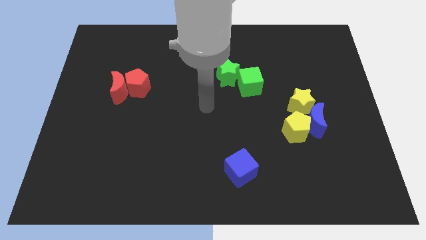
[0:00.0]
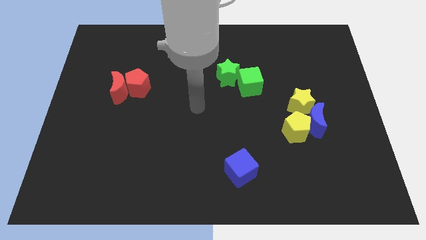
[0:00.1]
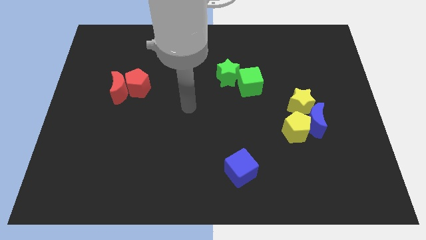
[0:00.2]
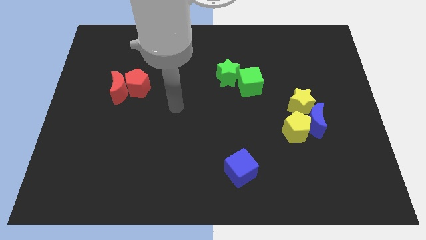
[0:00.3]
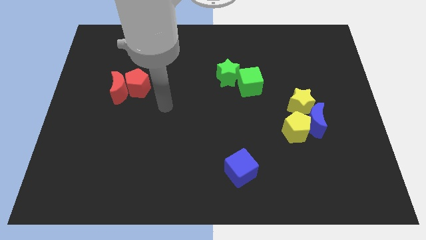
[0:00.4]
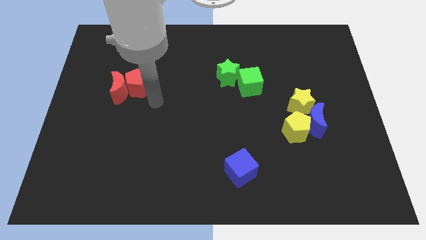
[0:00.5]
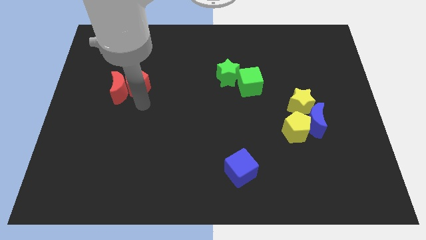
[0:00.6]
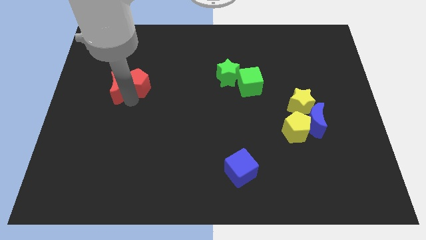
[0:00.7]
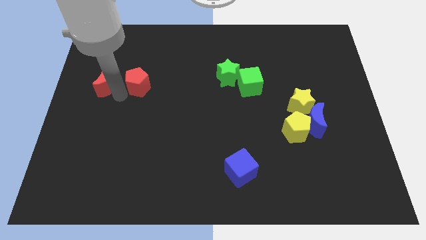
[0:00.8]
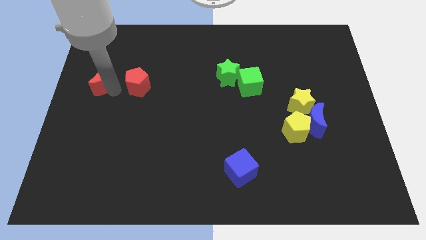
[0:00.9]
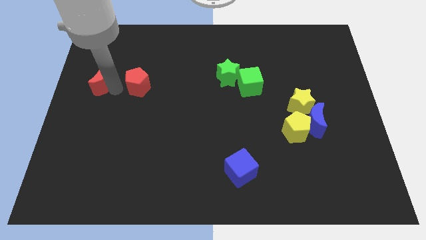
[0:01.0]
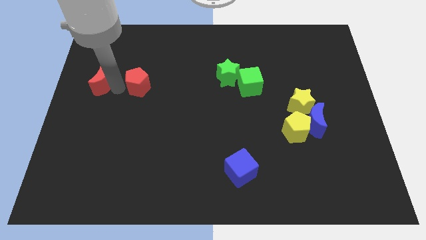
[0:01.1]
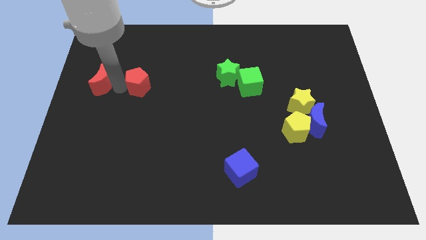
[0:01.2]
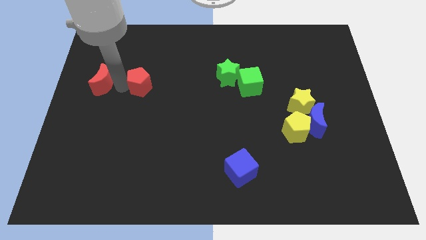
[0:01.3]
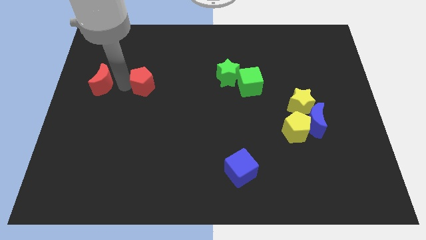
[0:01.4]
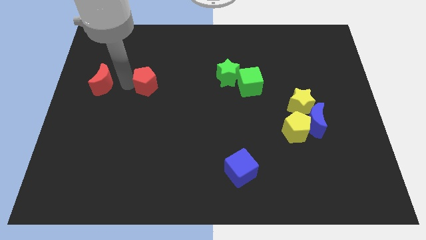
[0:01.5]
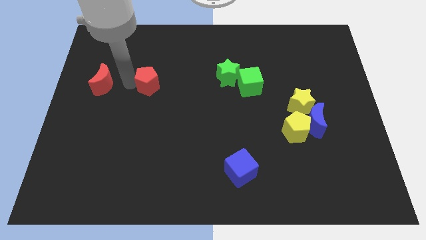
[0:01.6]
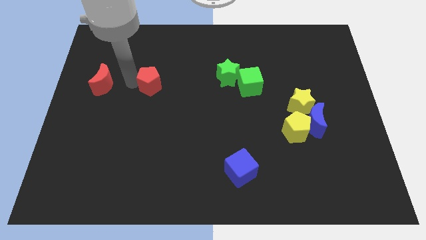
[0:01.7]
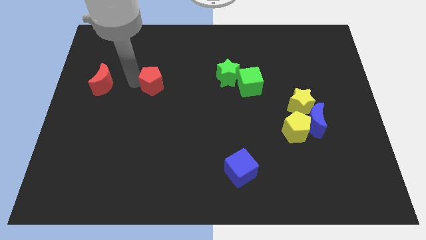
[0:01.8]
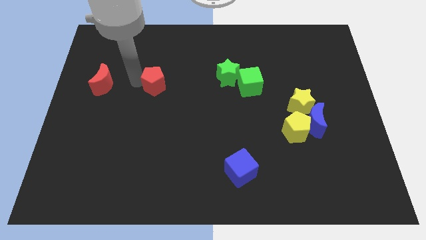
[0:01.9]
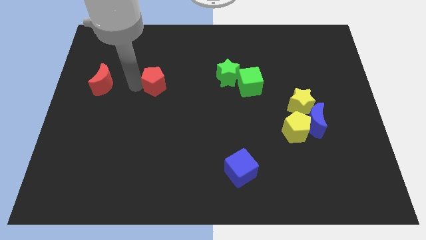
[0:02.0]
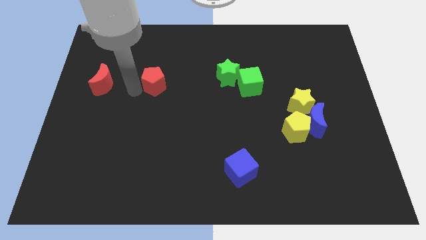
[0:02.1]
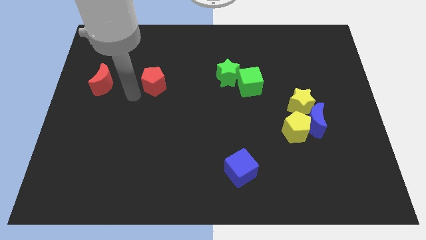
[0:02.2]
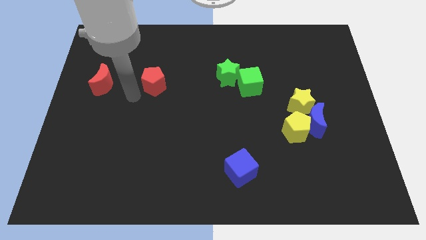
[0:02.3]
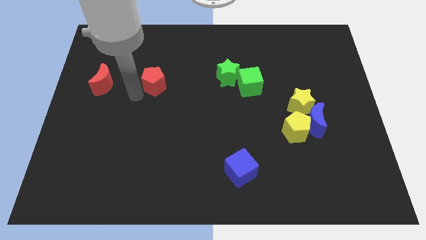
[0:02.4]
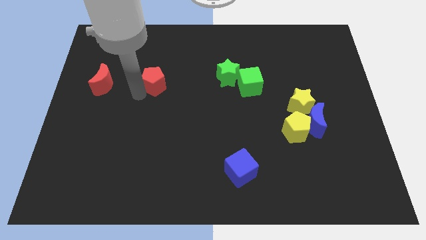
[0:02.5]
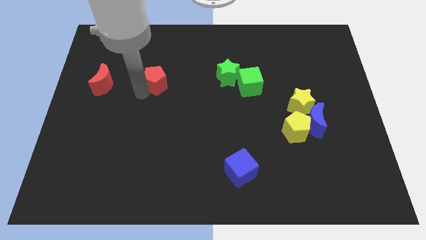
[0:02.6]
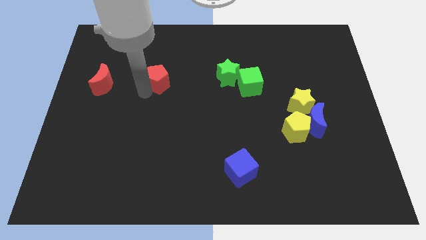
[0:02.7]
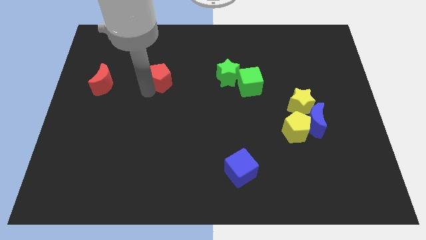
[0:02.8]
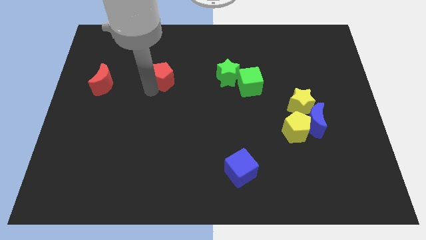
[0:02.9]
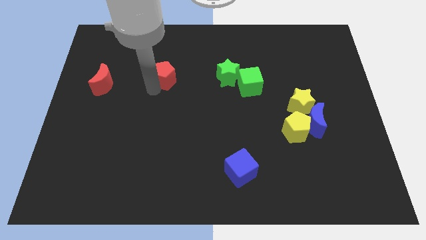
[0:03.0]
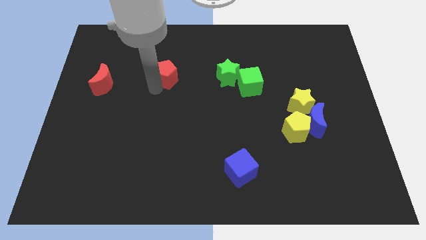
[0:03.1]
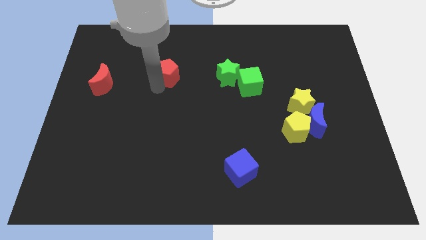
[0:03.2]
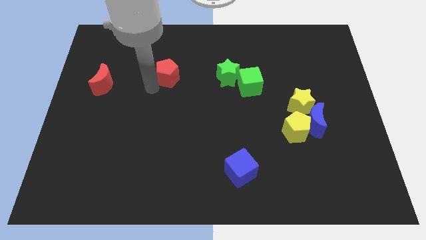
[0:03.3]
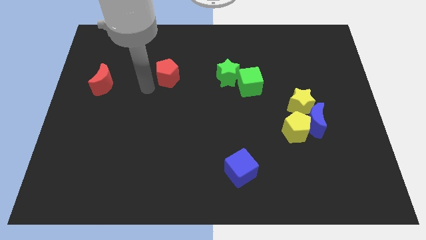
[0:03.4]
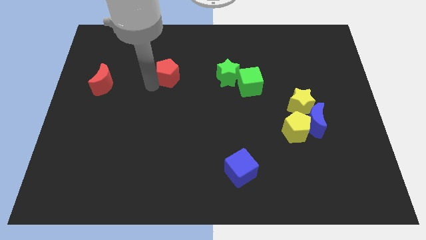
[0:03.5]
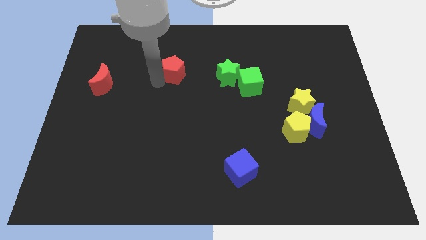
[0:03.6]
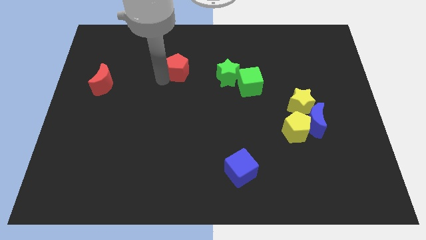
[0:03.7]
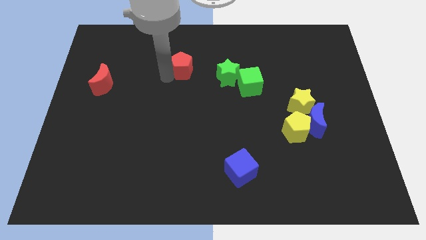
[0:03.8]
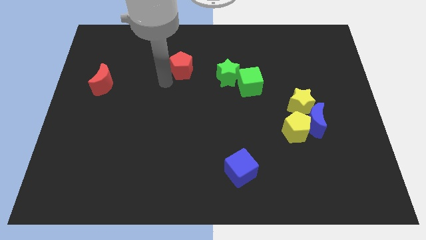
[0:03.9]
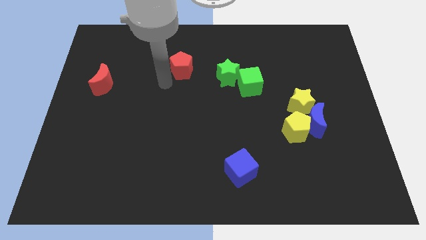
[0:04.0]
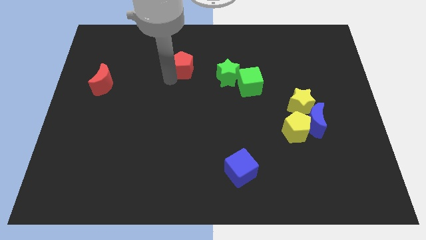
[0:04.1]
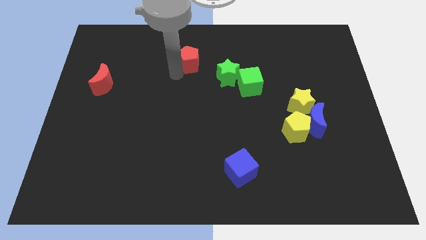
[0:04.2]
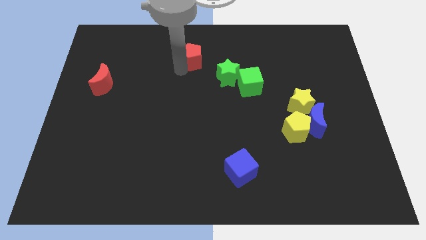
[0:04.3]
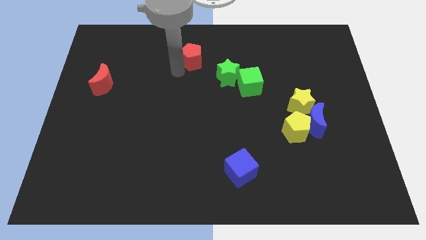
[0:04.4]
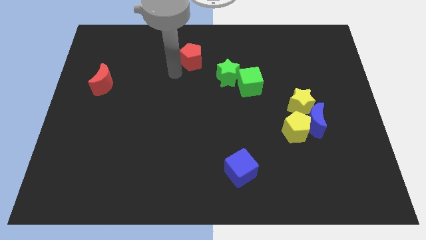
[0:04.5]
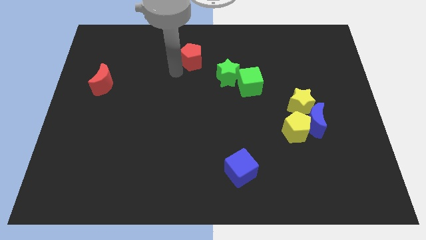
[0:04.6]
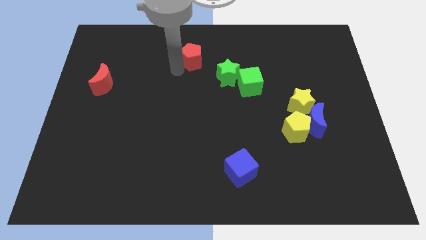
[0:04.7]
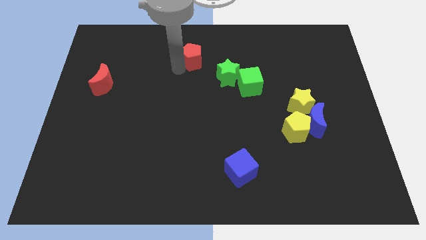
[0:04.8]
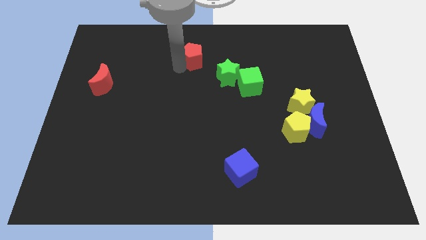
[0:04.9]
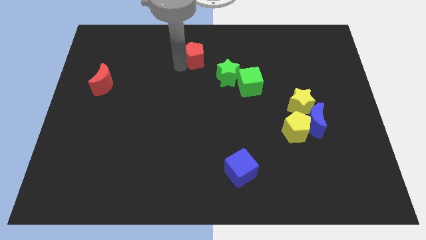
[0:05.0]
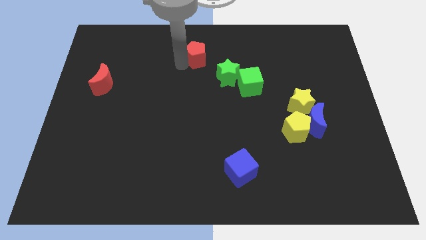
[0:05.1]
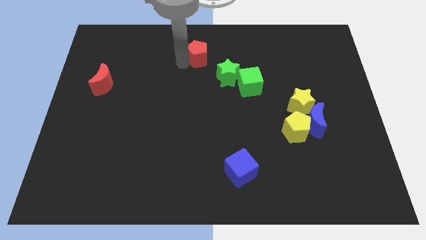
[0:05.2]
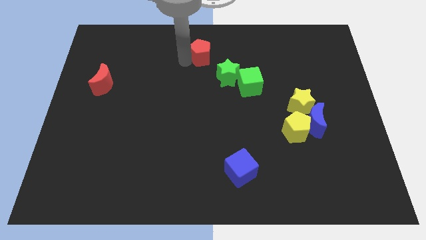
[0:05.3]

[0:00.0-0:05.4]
push the red pentagon to the towards your base

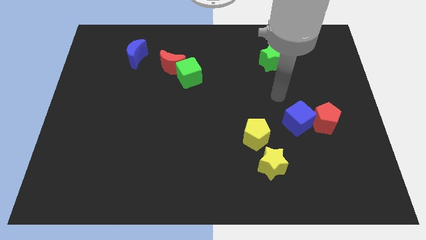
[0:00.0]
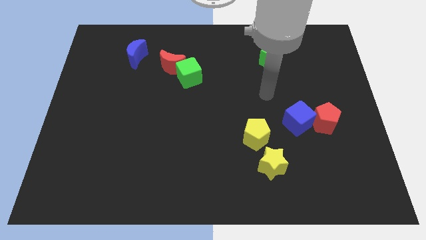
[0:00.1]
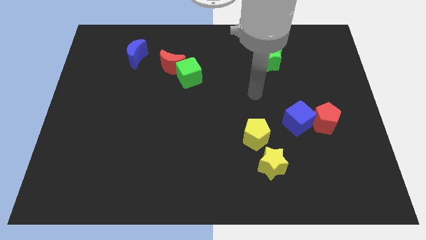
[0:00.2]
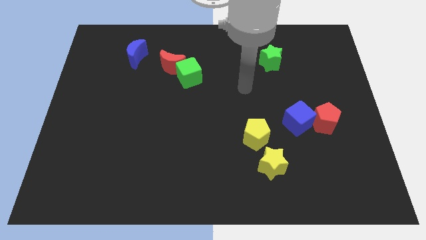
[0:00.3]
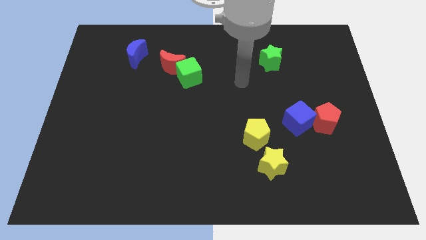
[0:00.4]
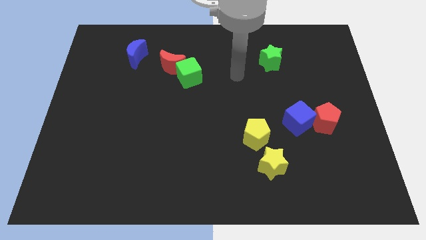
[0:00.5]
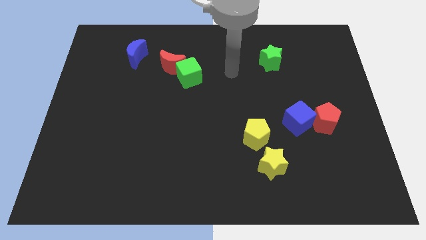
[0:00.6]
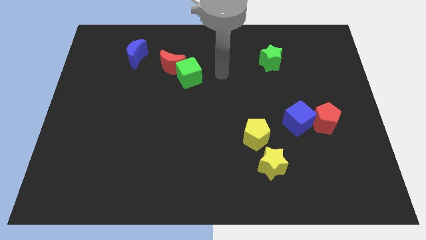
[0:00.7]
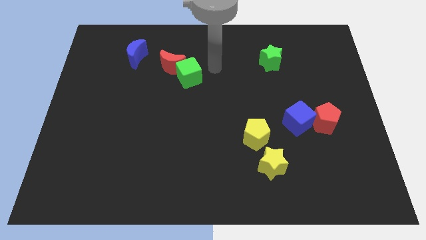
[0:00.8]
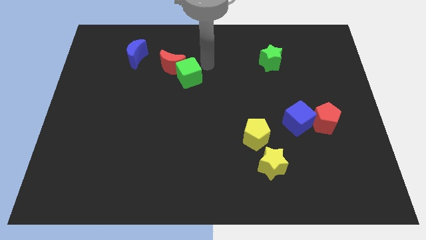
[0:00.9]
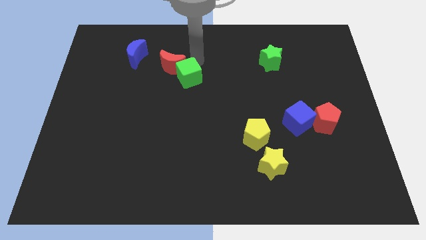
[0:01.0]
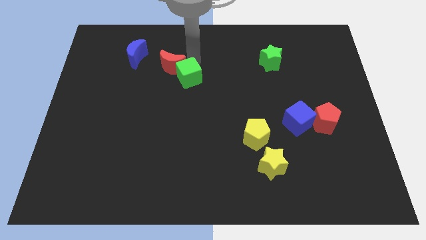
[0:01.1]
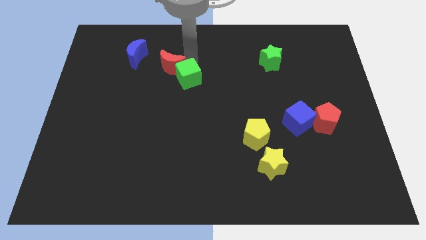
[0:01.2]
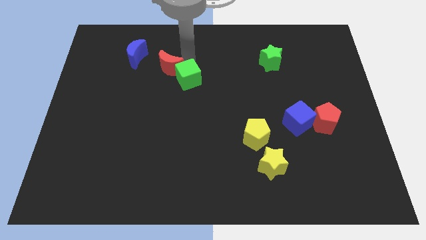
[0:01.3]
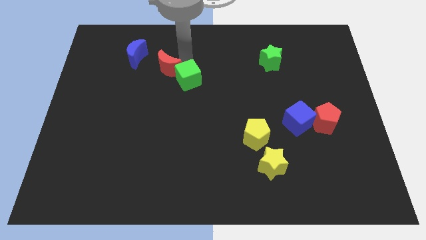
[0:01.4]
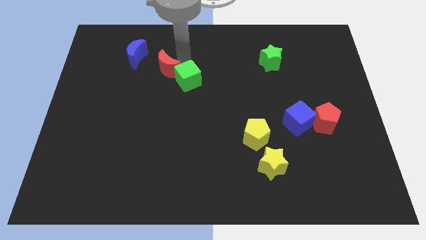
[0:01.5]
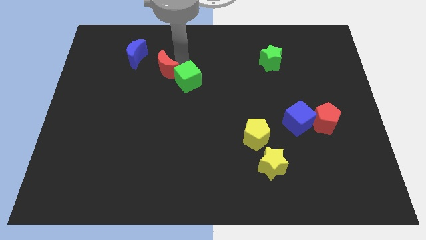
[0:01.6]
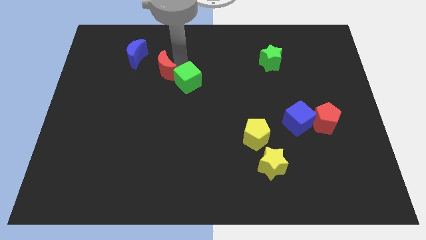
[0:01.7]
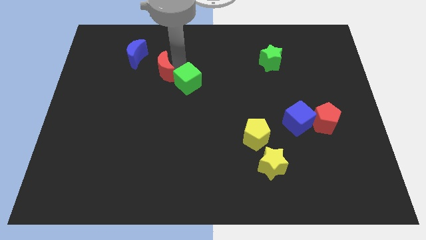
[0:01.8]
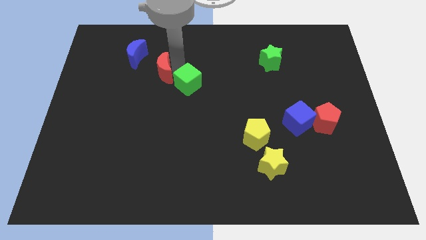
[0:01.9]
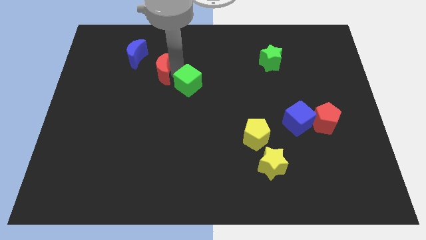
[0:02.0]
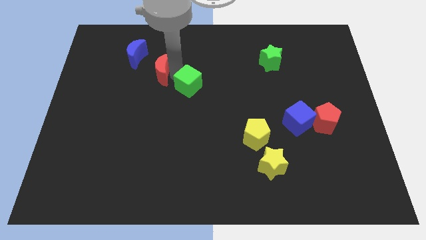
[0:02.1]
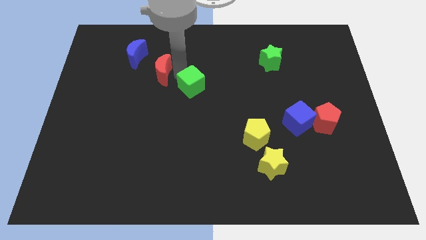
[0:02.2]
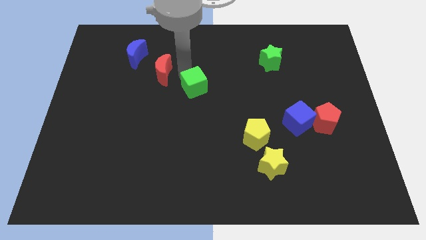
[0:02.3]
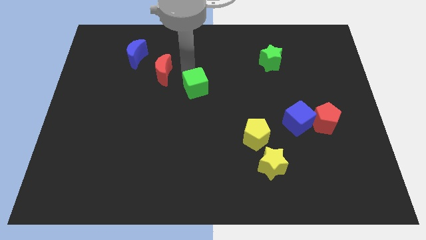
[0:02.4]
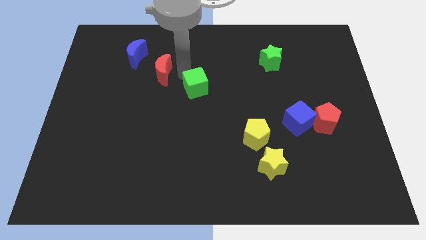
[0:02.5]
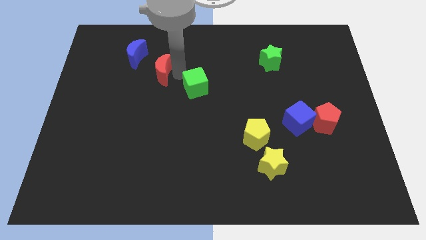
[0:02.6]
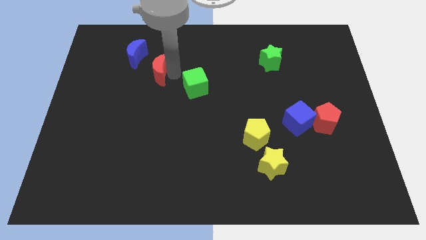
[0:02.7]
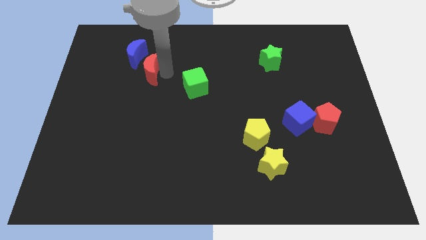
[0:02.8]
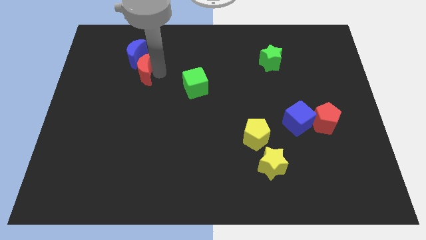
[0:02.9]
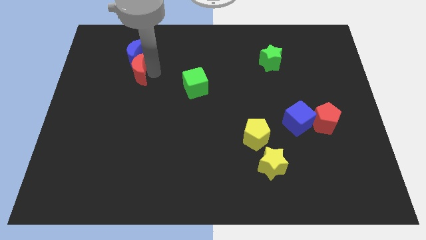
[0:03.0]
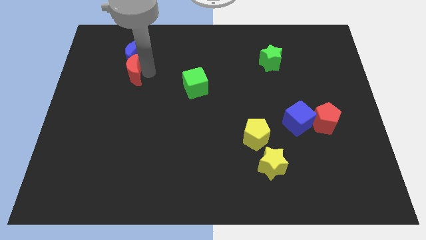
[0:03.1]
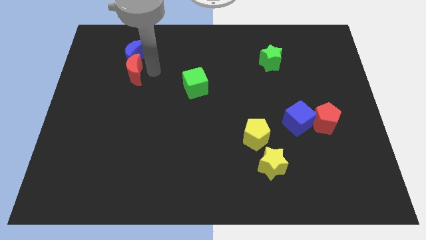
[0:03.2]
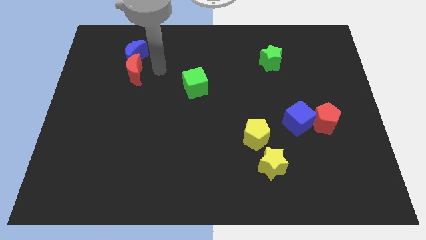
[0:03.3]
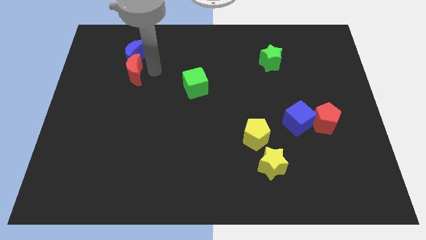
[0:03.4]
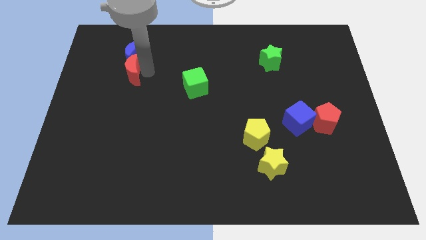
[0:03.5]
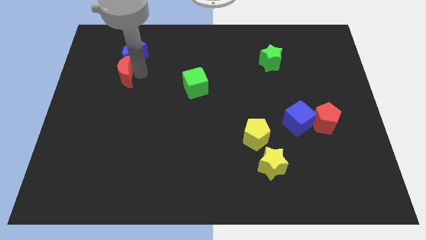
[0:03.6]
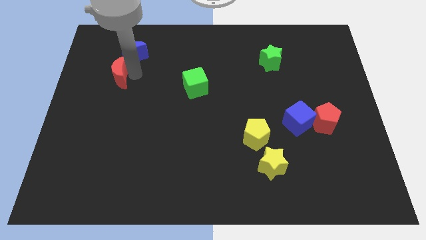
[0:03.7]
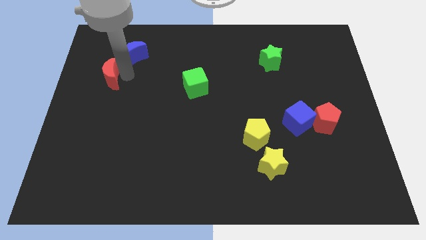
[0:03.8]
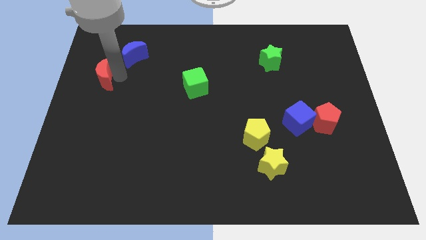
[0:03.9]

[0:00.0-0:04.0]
push the red moon to the left side
